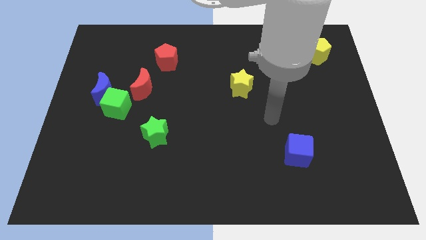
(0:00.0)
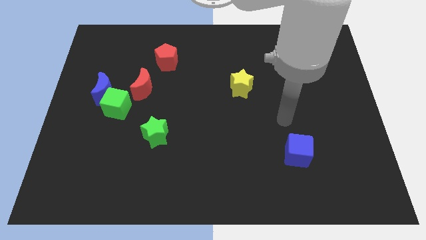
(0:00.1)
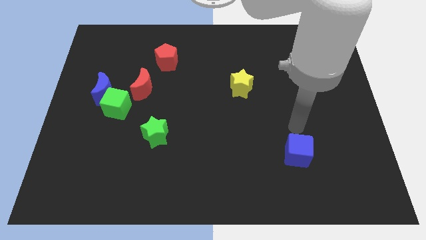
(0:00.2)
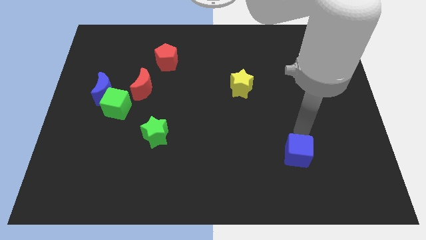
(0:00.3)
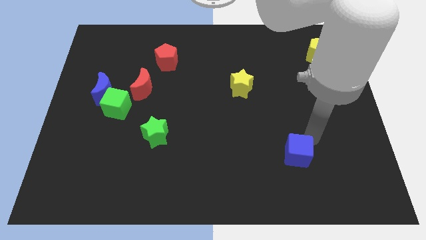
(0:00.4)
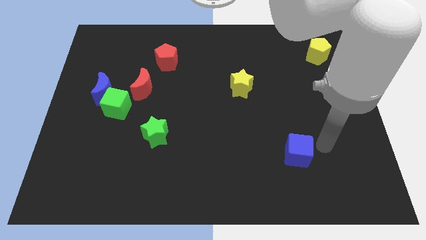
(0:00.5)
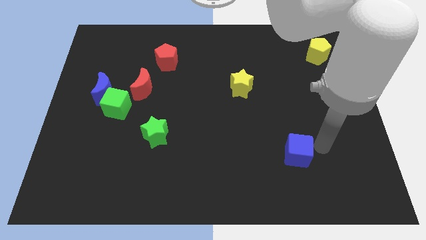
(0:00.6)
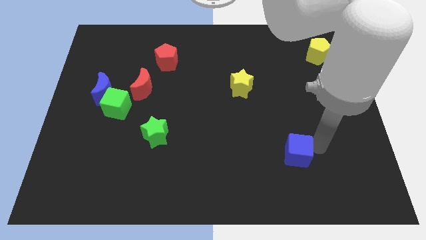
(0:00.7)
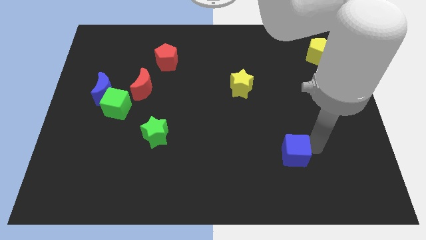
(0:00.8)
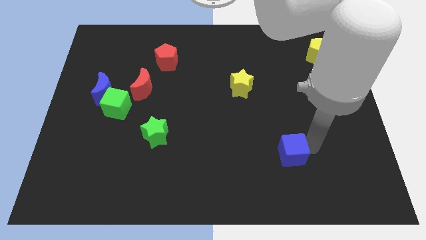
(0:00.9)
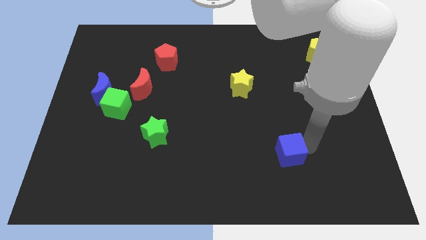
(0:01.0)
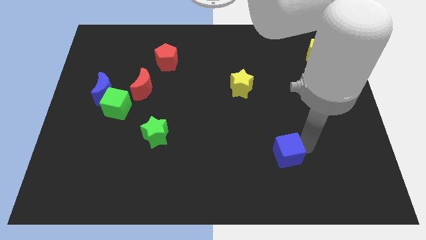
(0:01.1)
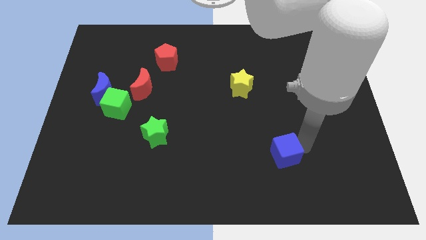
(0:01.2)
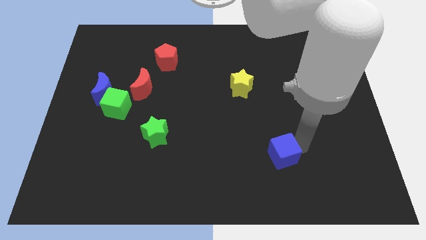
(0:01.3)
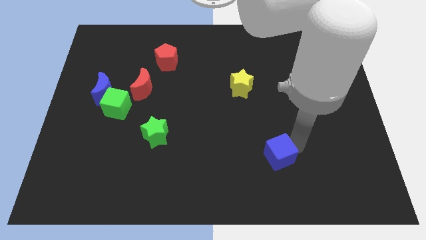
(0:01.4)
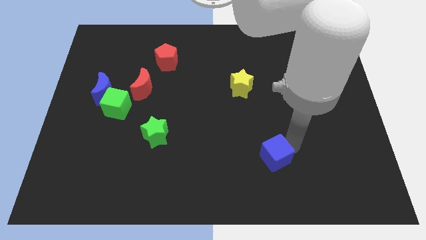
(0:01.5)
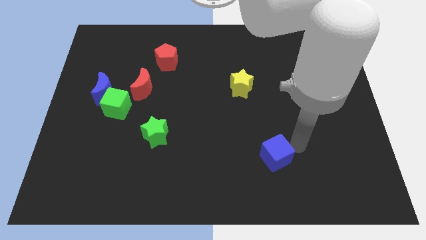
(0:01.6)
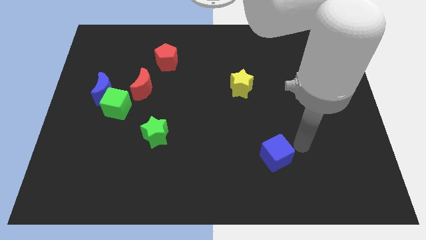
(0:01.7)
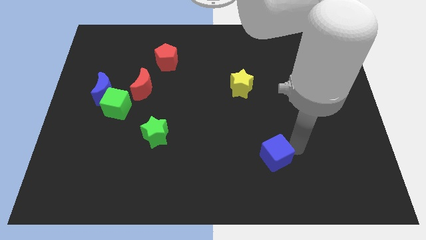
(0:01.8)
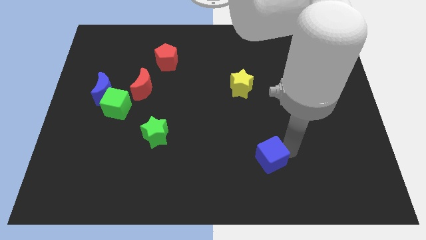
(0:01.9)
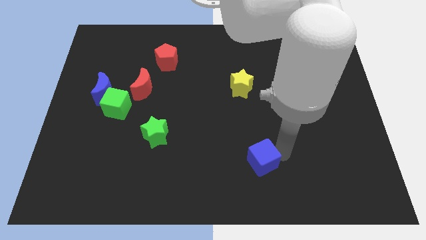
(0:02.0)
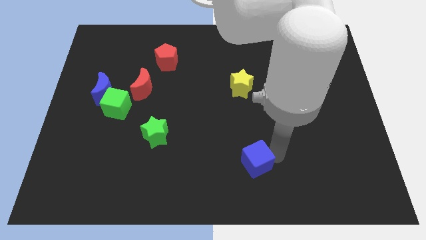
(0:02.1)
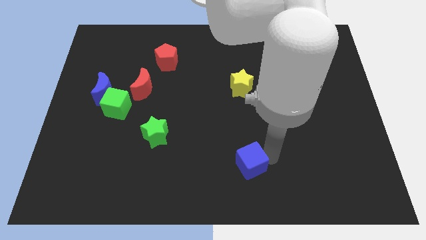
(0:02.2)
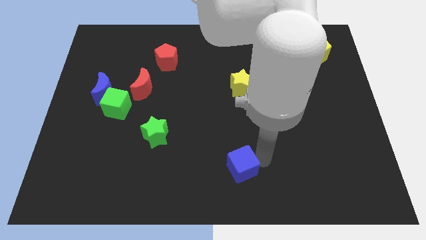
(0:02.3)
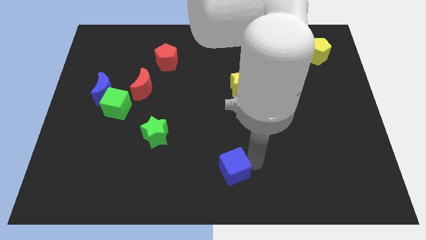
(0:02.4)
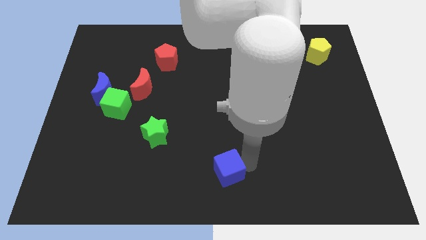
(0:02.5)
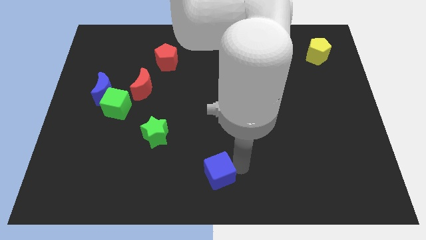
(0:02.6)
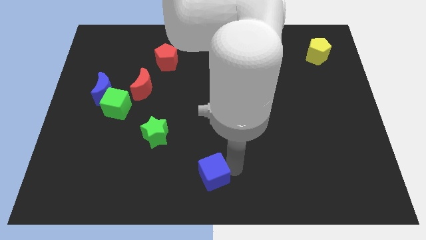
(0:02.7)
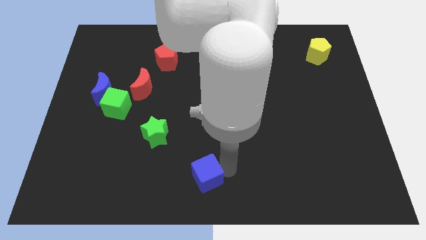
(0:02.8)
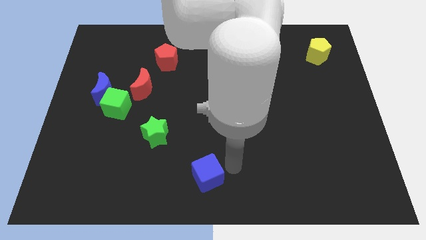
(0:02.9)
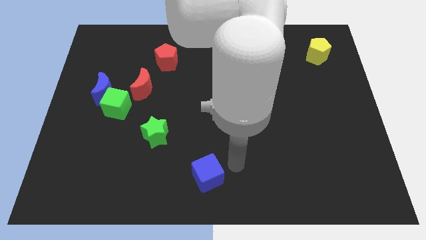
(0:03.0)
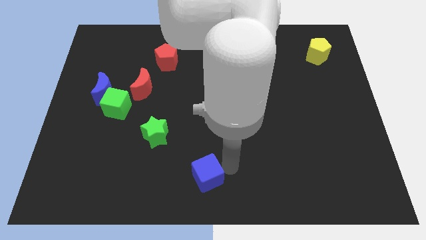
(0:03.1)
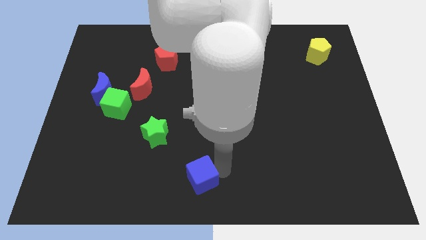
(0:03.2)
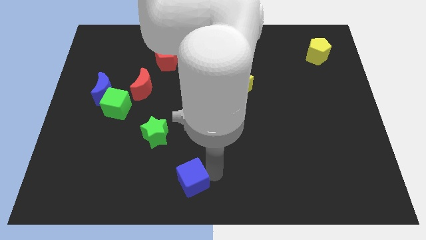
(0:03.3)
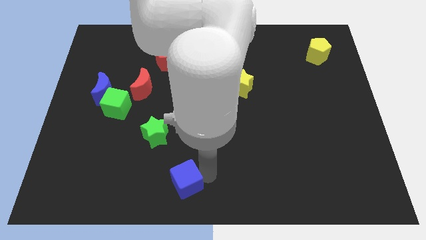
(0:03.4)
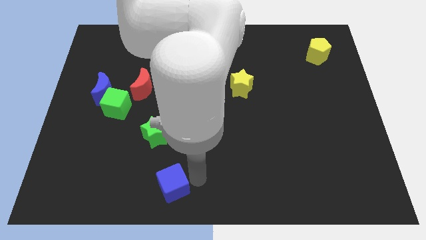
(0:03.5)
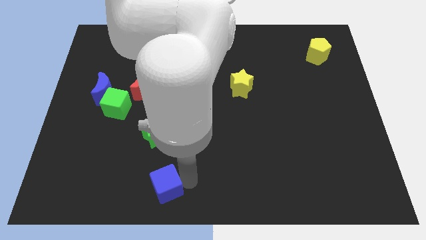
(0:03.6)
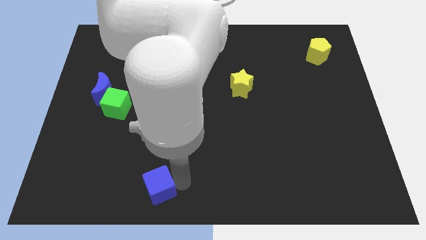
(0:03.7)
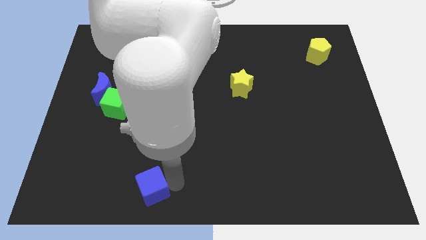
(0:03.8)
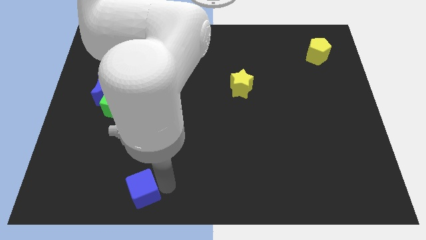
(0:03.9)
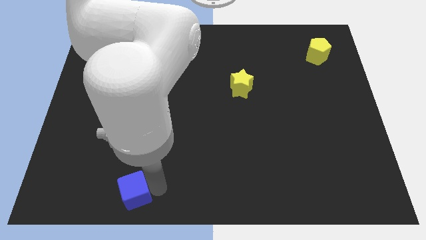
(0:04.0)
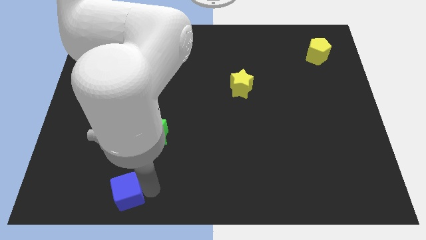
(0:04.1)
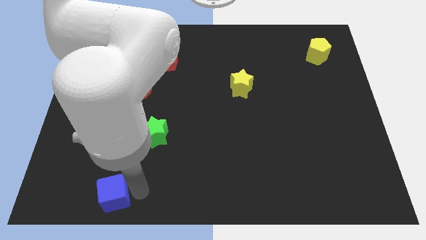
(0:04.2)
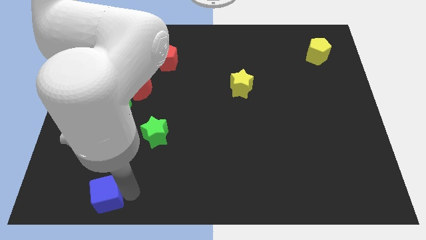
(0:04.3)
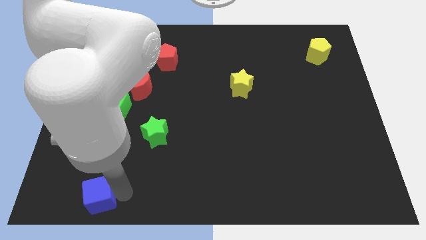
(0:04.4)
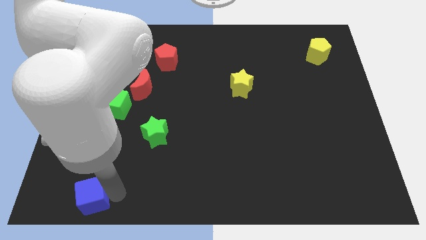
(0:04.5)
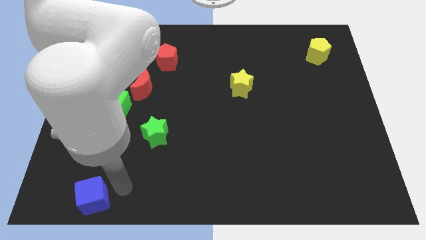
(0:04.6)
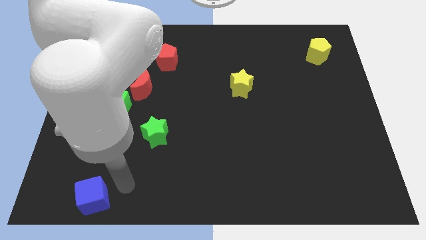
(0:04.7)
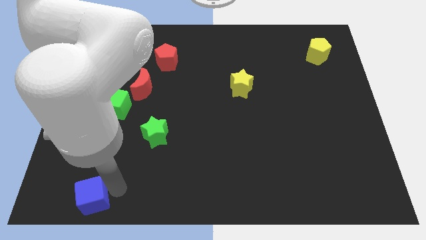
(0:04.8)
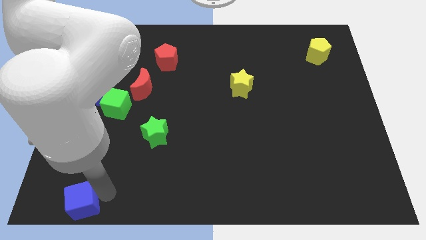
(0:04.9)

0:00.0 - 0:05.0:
push the blue cube to the bottom left

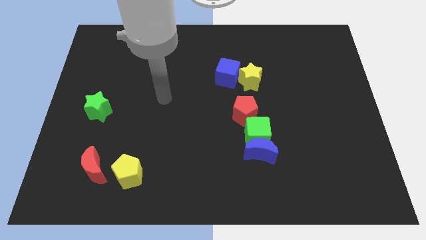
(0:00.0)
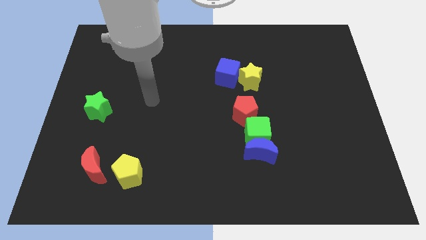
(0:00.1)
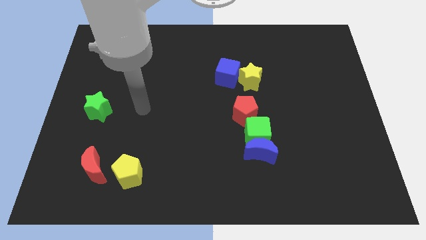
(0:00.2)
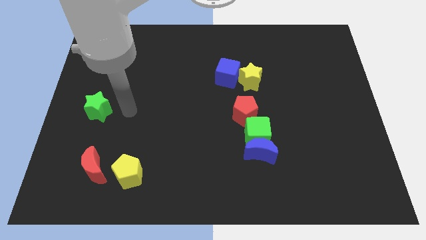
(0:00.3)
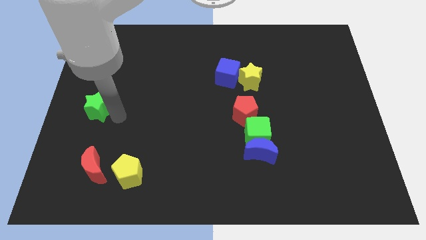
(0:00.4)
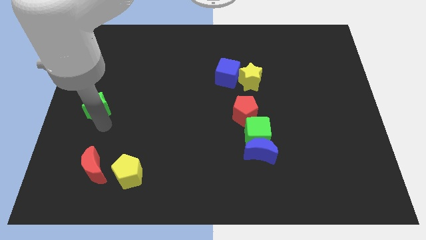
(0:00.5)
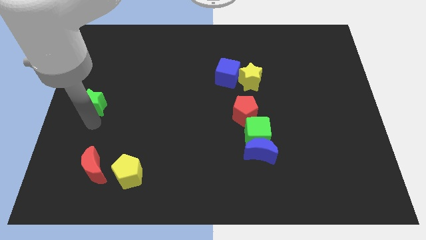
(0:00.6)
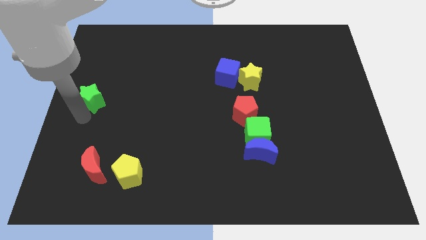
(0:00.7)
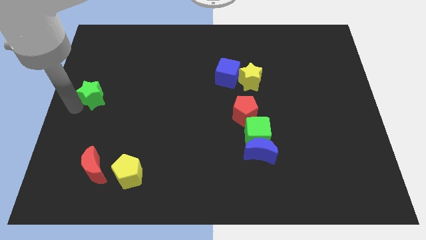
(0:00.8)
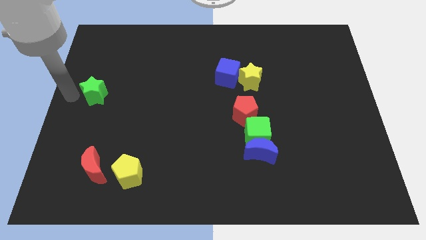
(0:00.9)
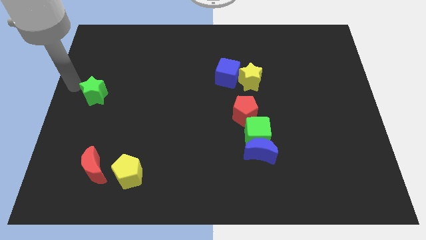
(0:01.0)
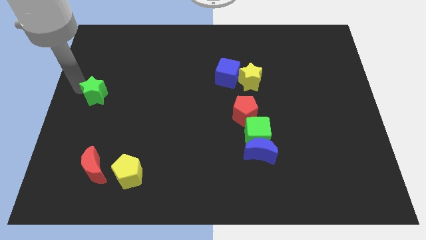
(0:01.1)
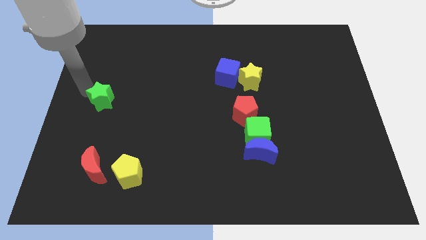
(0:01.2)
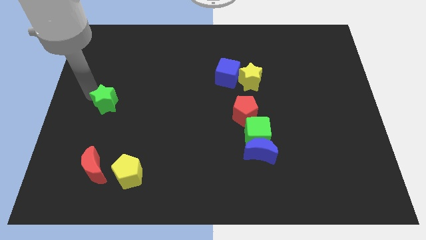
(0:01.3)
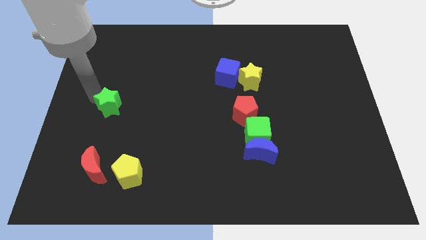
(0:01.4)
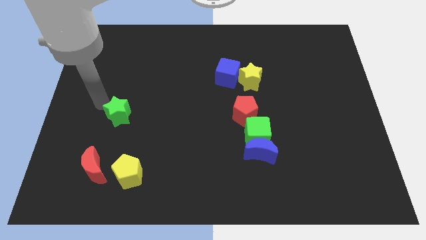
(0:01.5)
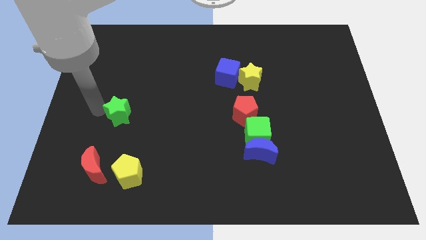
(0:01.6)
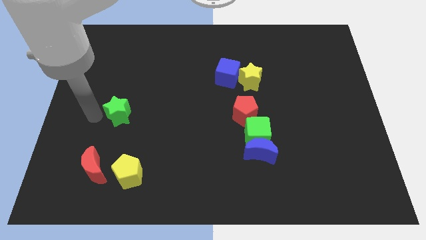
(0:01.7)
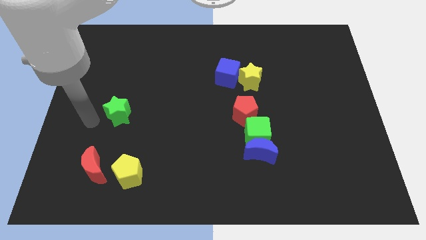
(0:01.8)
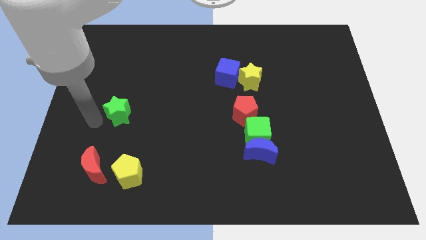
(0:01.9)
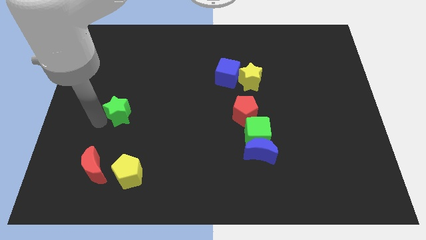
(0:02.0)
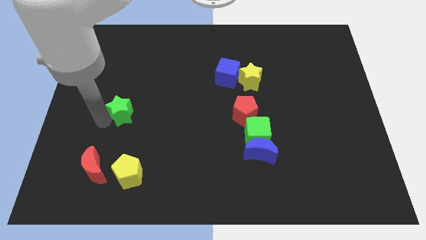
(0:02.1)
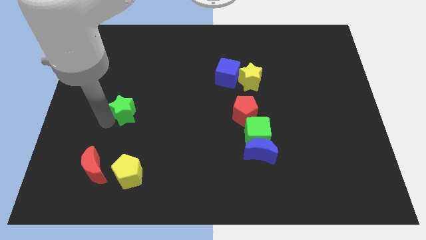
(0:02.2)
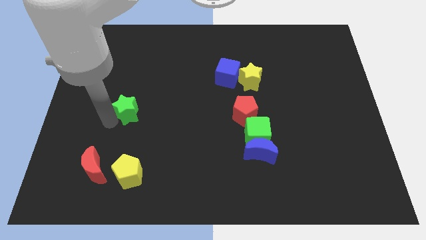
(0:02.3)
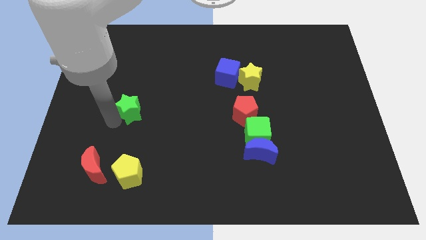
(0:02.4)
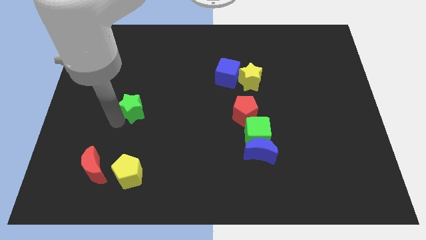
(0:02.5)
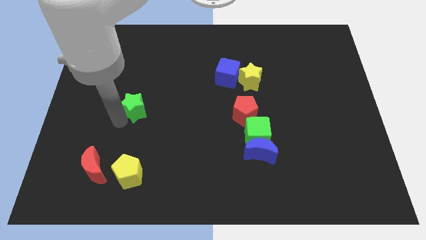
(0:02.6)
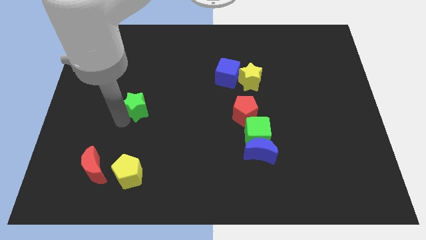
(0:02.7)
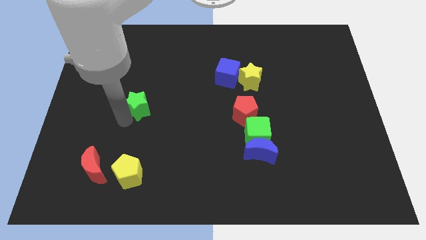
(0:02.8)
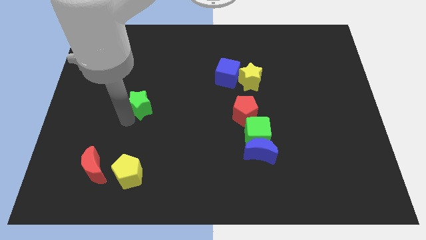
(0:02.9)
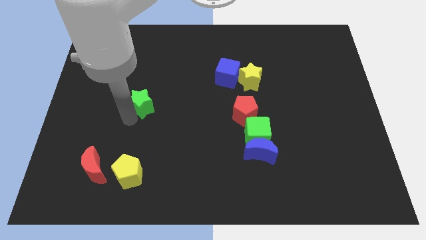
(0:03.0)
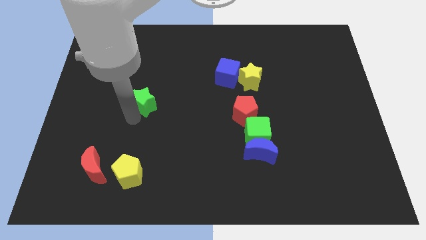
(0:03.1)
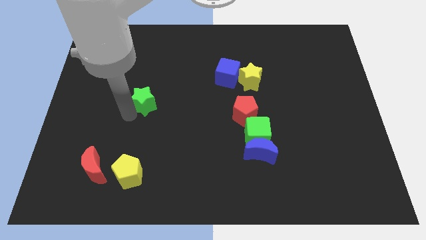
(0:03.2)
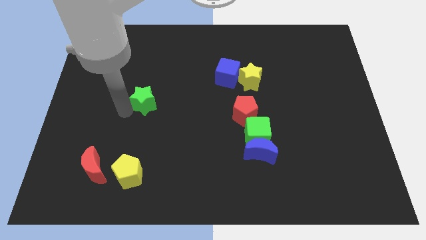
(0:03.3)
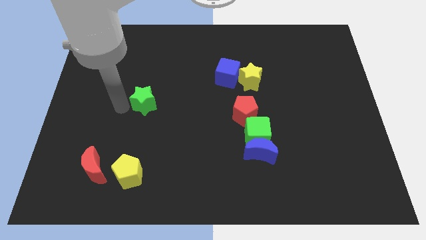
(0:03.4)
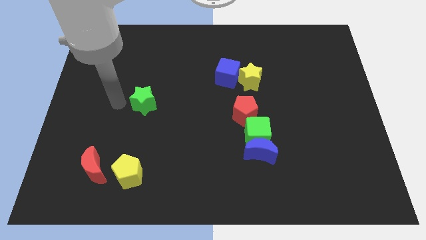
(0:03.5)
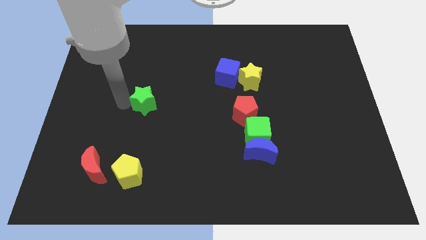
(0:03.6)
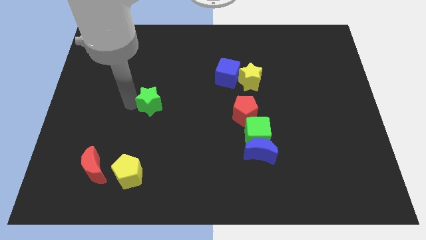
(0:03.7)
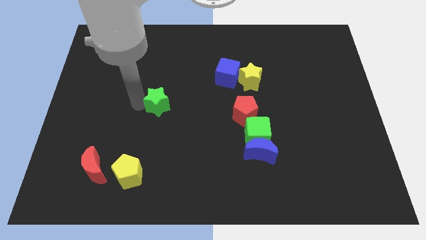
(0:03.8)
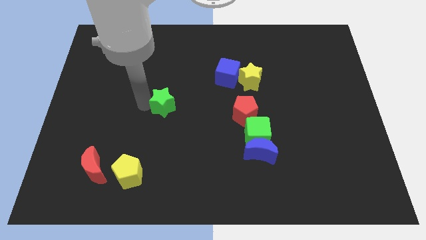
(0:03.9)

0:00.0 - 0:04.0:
put the green star to the middle
